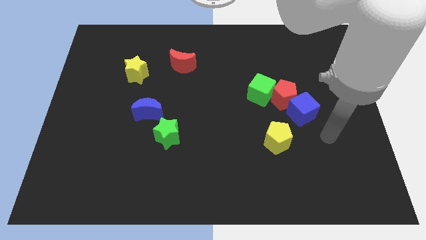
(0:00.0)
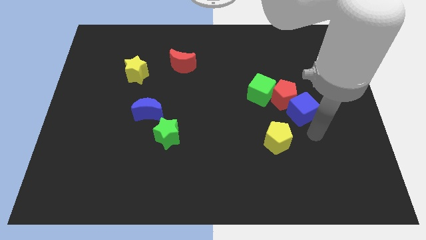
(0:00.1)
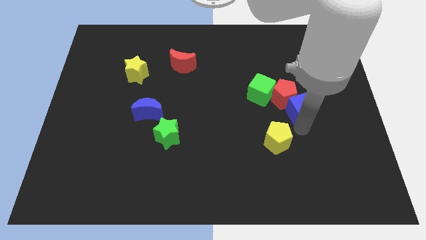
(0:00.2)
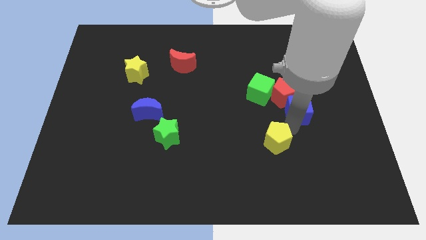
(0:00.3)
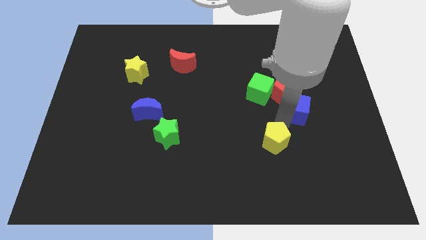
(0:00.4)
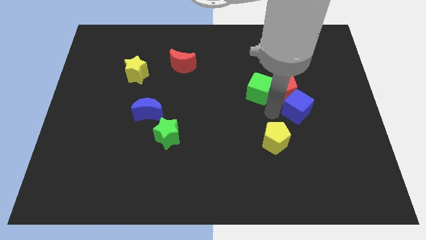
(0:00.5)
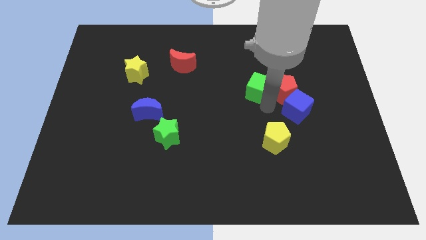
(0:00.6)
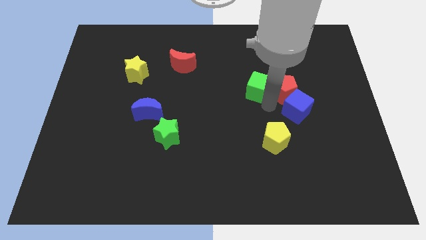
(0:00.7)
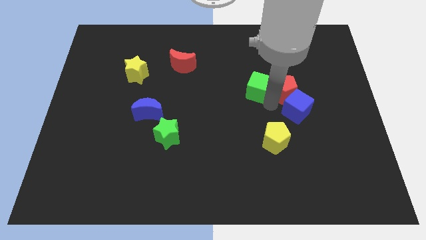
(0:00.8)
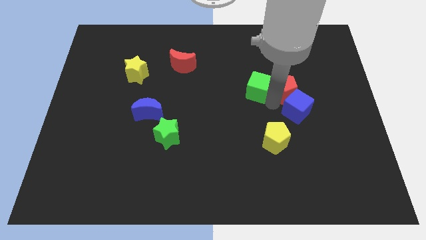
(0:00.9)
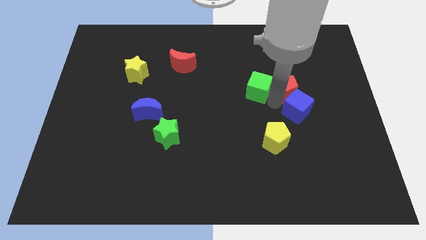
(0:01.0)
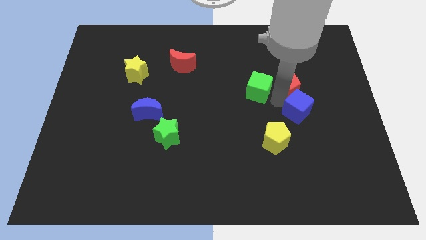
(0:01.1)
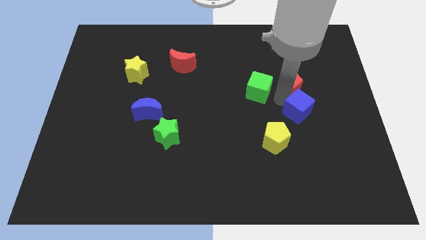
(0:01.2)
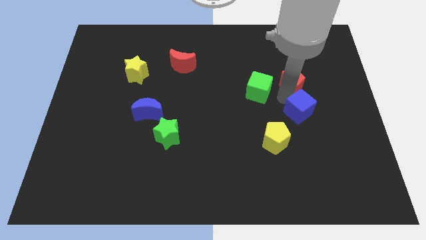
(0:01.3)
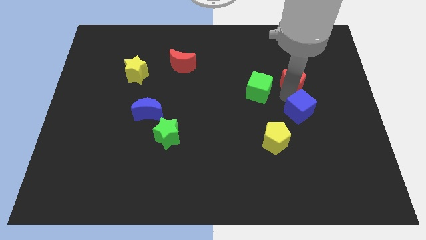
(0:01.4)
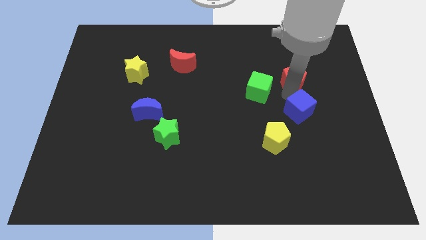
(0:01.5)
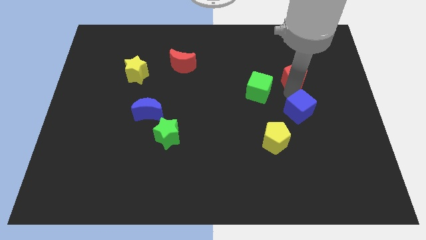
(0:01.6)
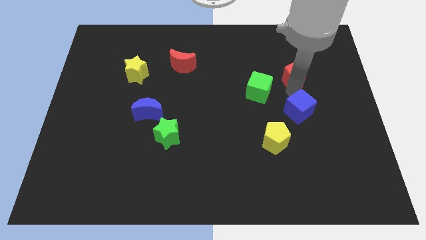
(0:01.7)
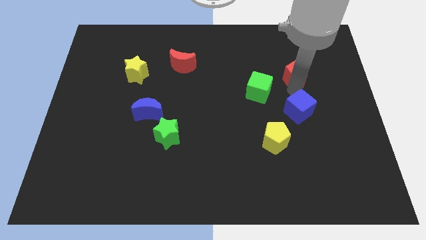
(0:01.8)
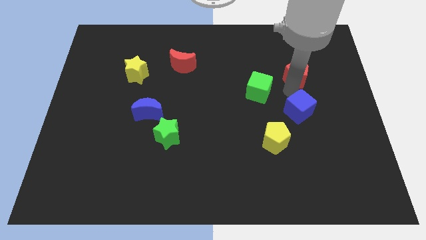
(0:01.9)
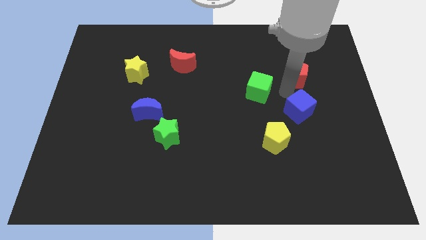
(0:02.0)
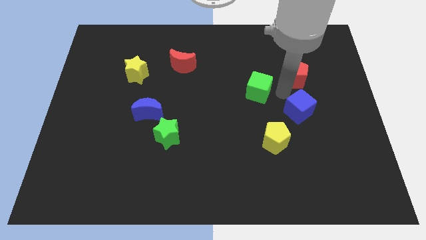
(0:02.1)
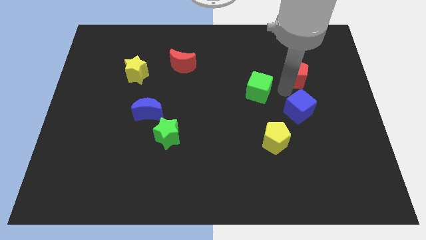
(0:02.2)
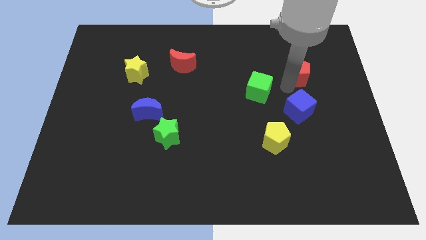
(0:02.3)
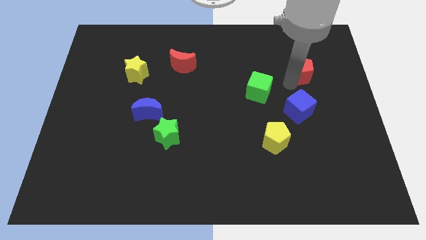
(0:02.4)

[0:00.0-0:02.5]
pull the red pentagon apart from the blue cube and green cube

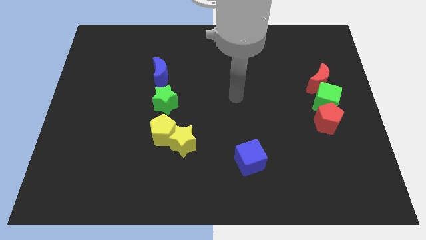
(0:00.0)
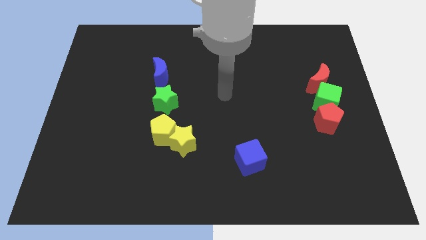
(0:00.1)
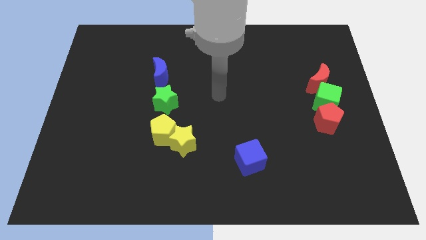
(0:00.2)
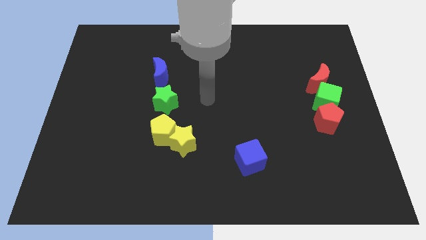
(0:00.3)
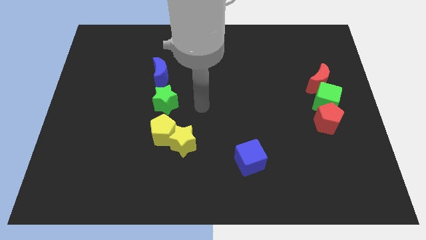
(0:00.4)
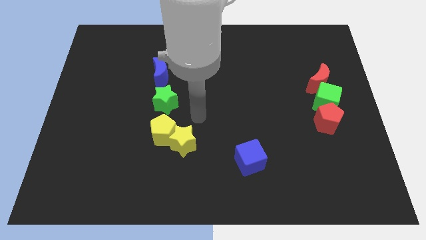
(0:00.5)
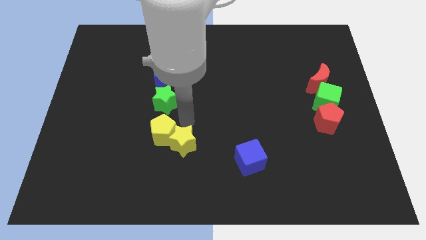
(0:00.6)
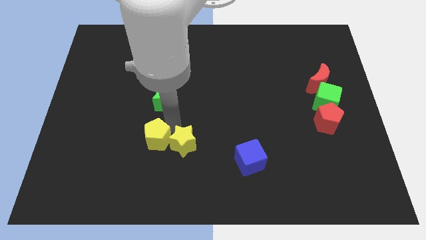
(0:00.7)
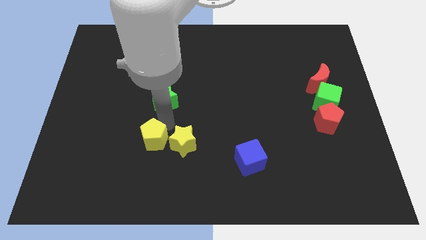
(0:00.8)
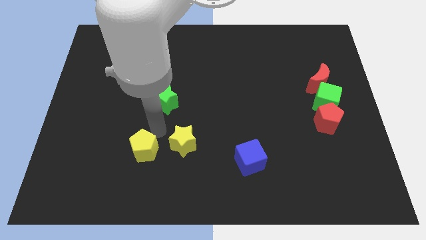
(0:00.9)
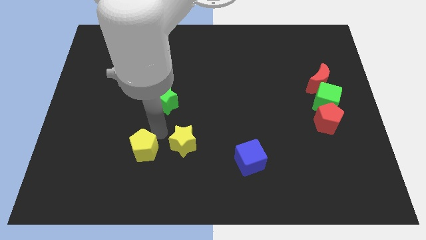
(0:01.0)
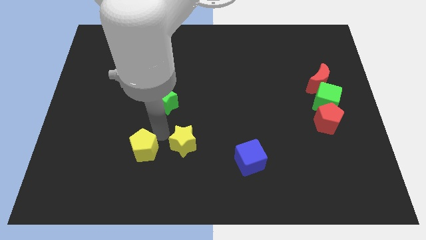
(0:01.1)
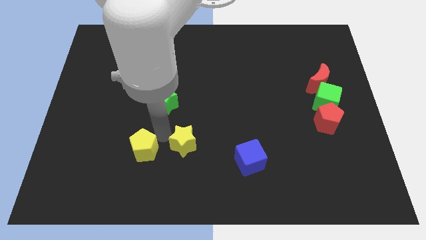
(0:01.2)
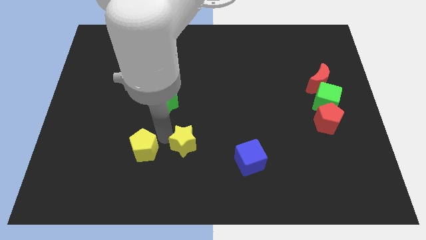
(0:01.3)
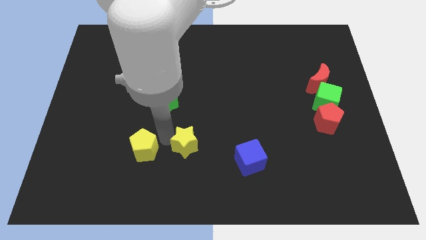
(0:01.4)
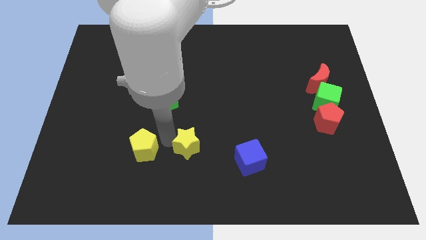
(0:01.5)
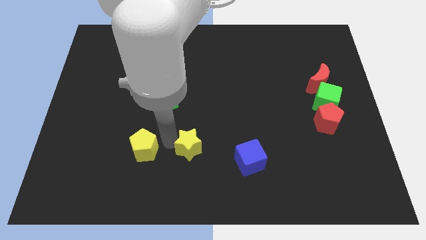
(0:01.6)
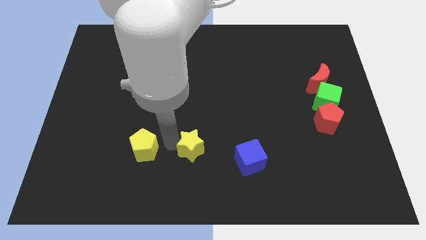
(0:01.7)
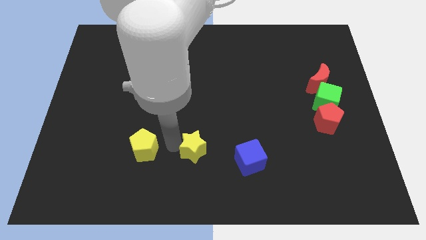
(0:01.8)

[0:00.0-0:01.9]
move the yellow star away from the yellow pentagon

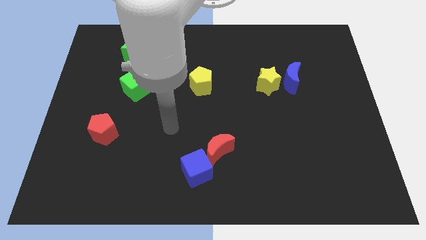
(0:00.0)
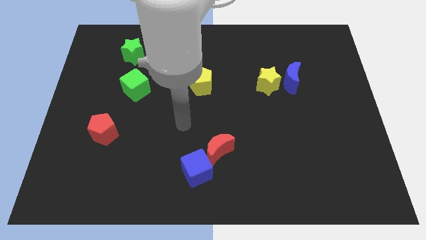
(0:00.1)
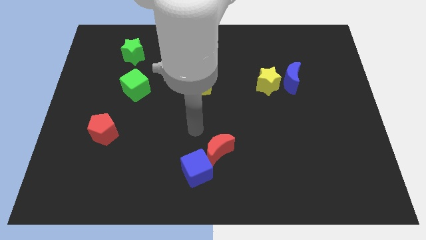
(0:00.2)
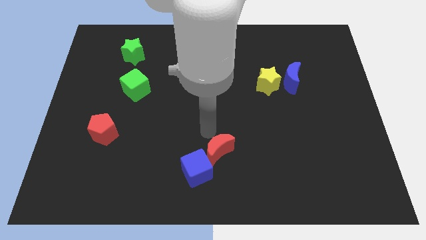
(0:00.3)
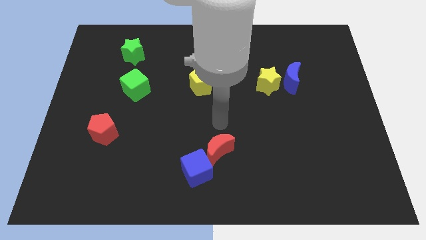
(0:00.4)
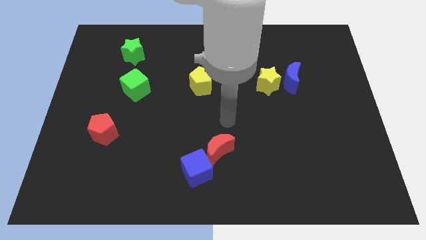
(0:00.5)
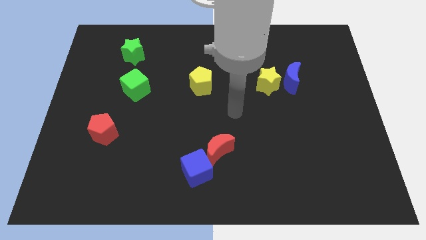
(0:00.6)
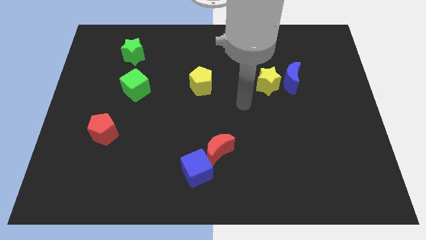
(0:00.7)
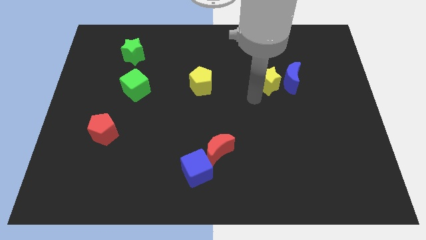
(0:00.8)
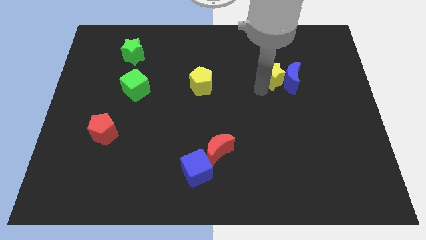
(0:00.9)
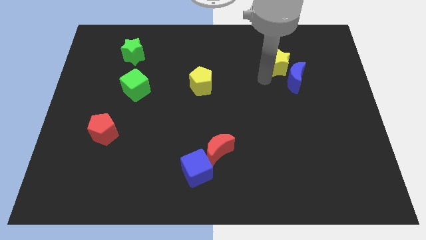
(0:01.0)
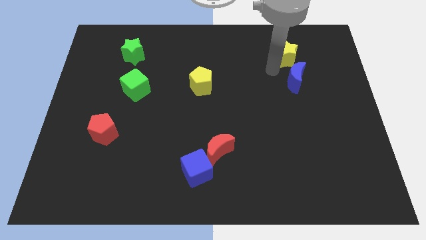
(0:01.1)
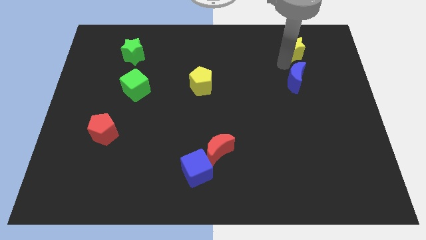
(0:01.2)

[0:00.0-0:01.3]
pull the blue moon apart from the yellow star

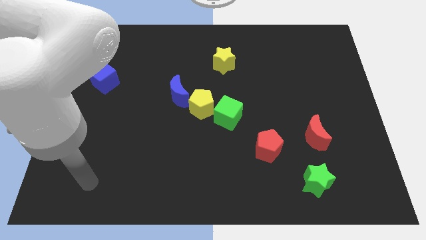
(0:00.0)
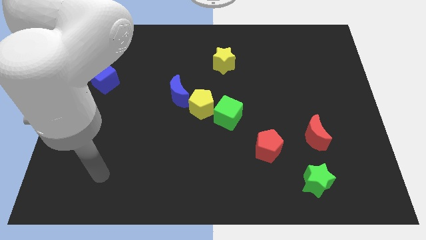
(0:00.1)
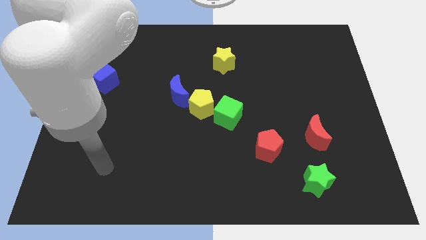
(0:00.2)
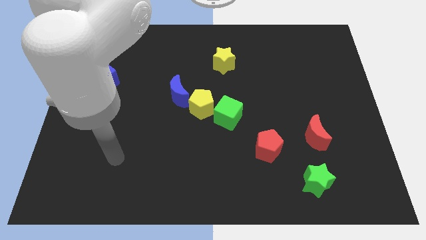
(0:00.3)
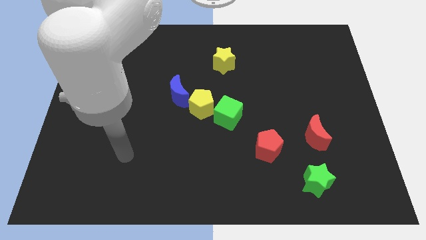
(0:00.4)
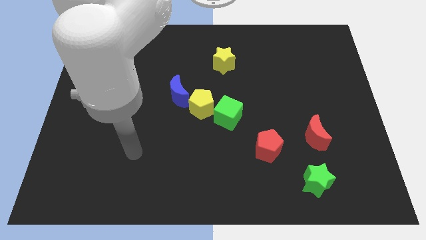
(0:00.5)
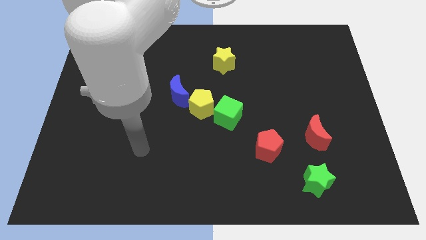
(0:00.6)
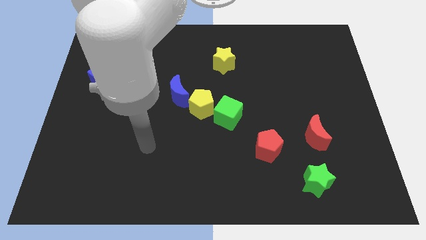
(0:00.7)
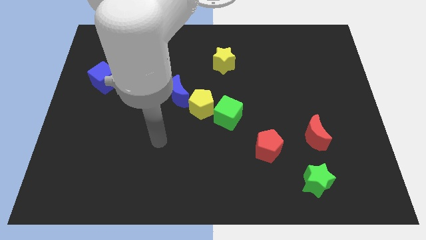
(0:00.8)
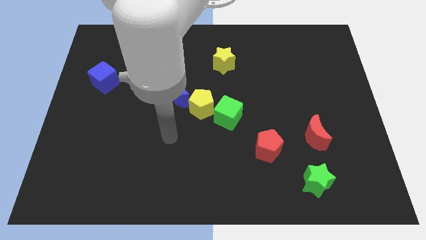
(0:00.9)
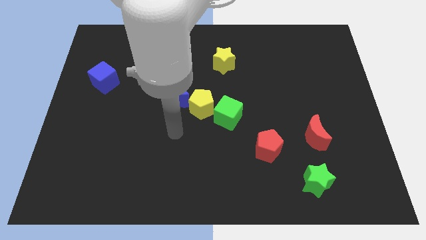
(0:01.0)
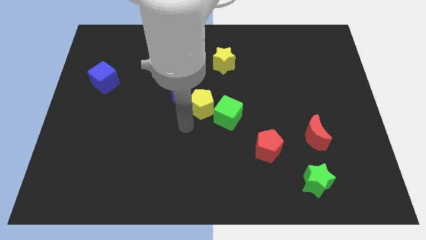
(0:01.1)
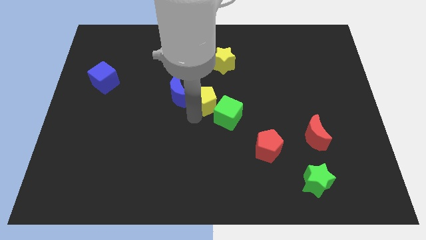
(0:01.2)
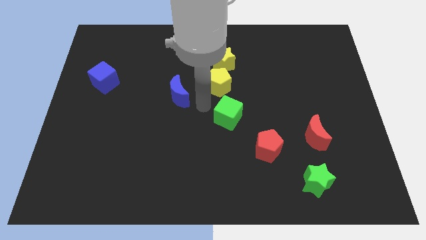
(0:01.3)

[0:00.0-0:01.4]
separate the green cube from the yellow pentagon

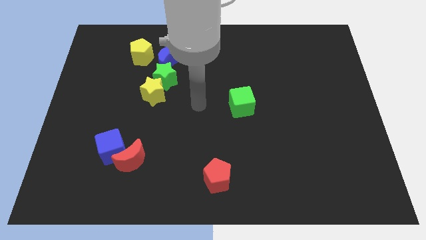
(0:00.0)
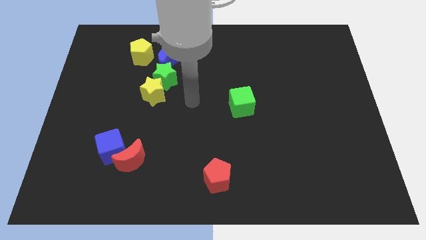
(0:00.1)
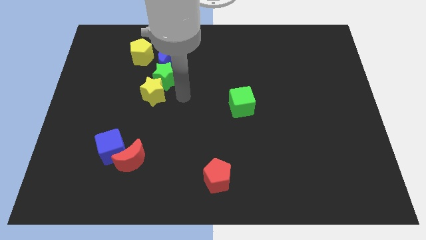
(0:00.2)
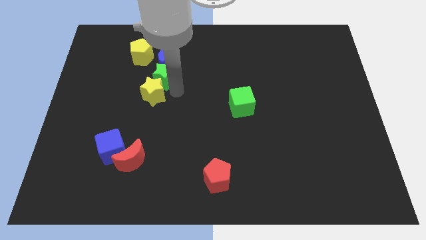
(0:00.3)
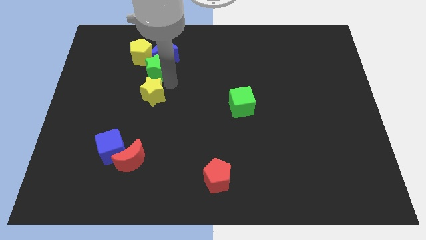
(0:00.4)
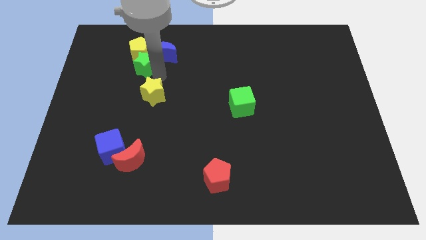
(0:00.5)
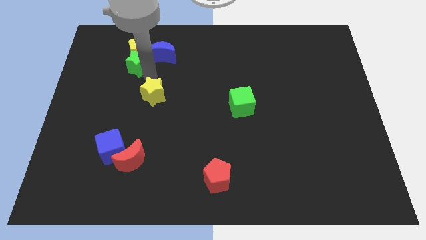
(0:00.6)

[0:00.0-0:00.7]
pull the yellow star apart from the green star

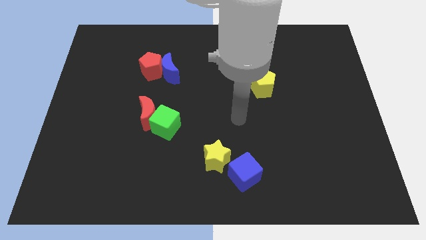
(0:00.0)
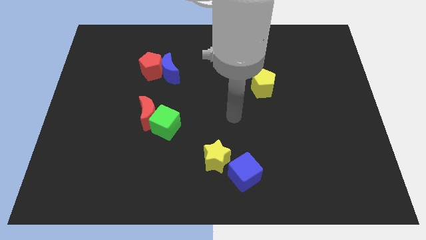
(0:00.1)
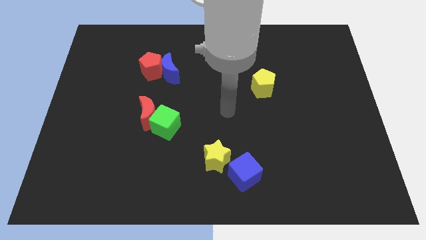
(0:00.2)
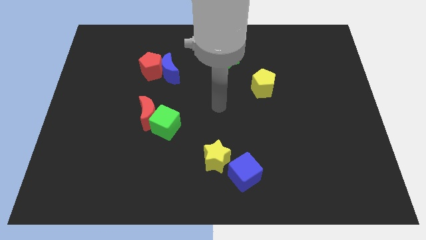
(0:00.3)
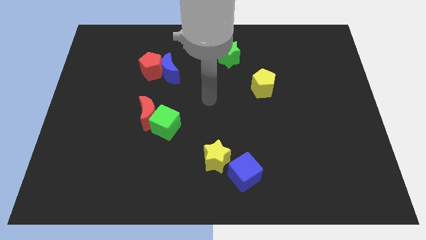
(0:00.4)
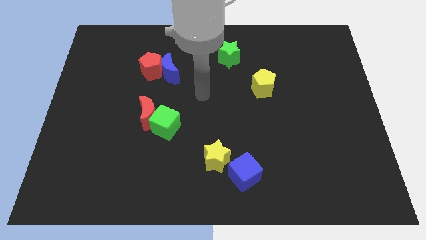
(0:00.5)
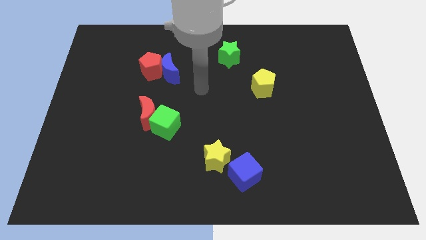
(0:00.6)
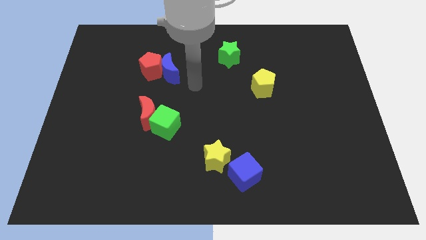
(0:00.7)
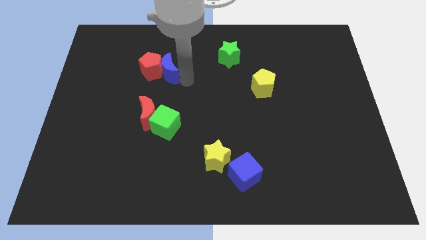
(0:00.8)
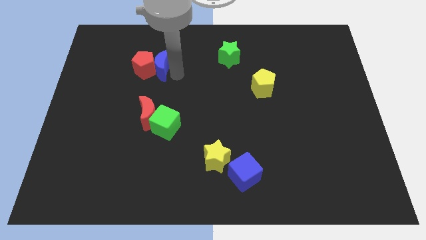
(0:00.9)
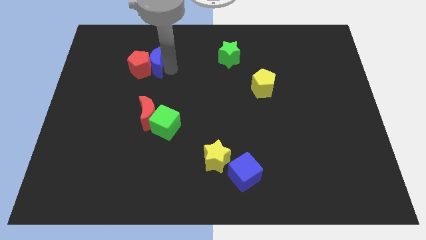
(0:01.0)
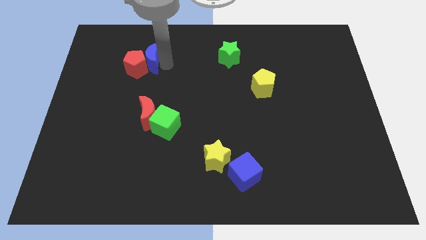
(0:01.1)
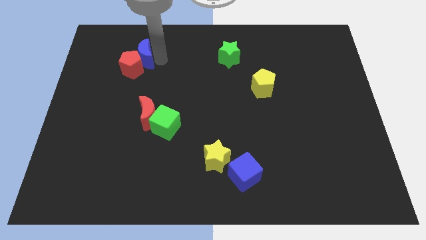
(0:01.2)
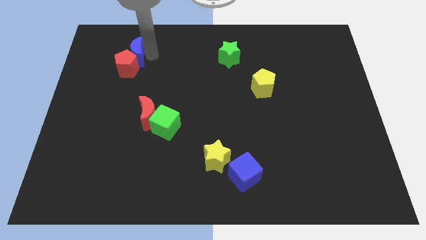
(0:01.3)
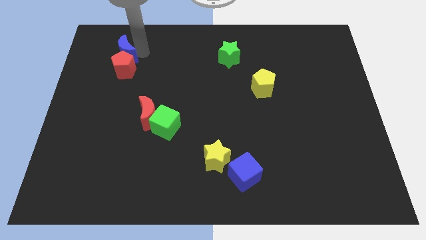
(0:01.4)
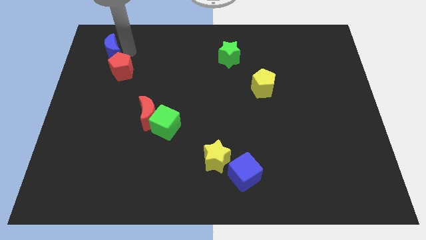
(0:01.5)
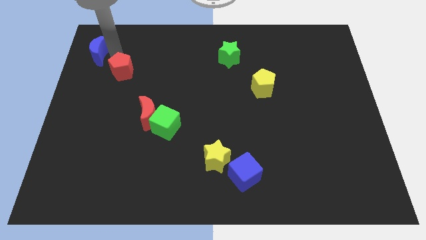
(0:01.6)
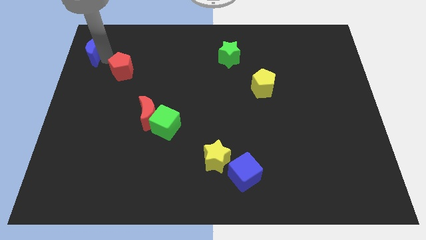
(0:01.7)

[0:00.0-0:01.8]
move the red pentagon away from the blue moon
